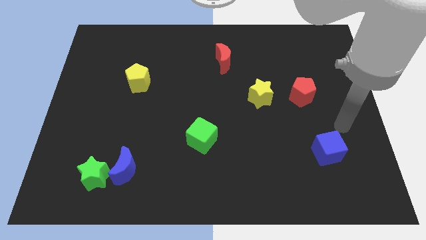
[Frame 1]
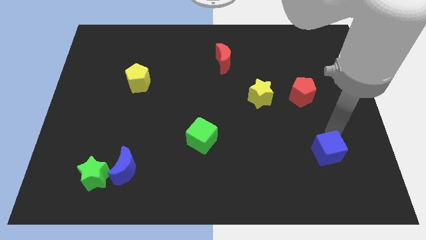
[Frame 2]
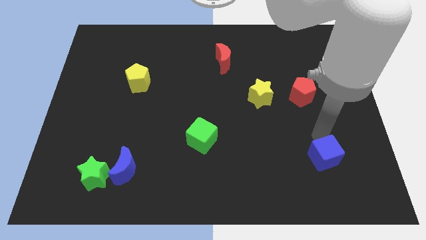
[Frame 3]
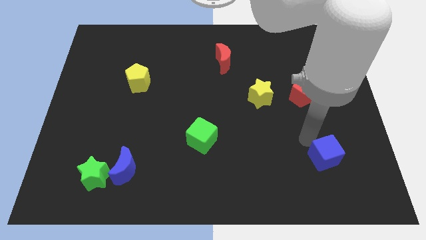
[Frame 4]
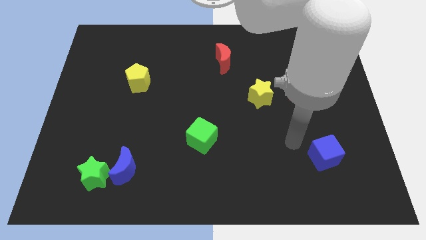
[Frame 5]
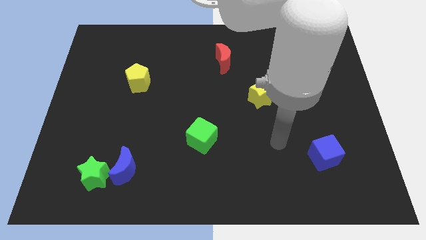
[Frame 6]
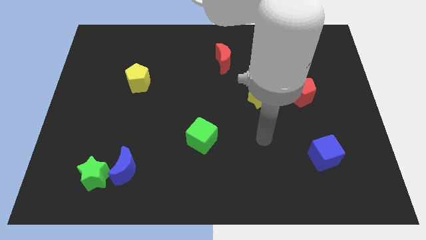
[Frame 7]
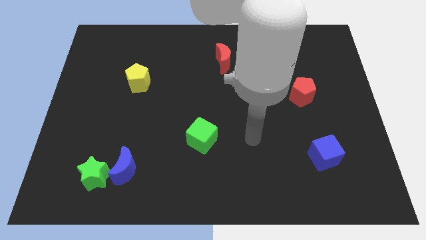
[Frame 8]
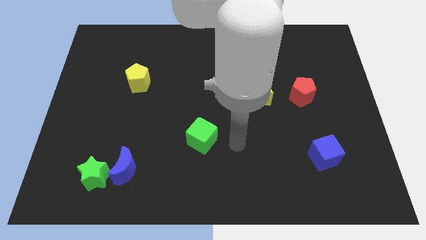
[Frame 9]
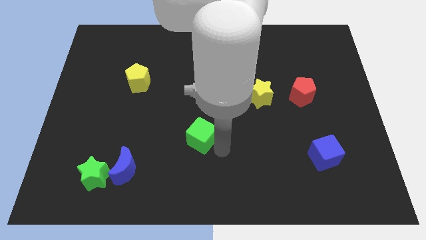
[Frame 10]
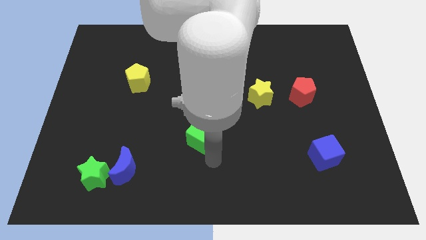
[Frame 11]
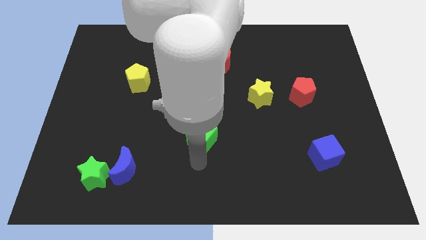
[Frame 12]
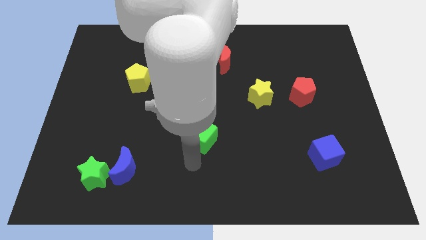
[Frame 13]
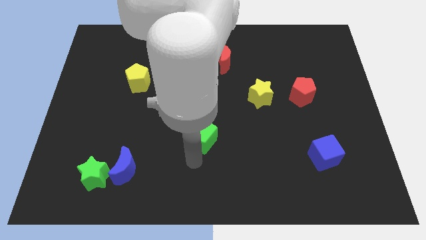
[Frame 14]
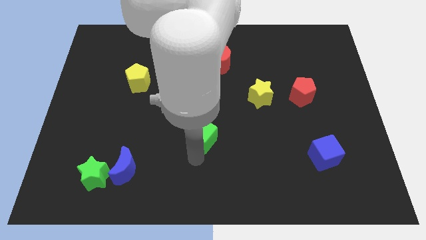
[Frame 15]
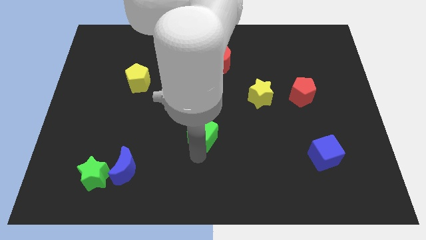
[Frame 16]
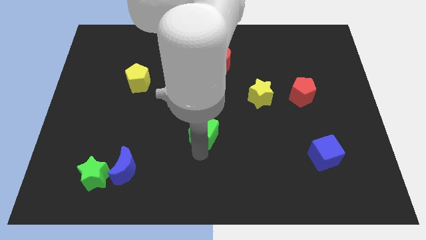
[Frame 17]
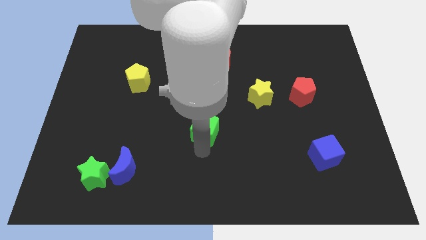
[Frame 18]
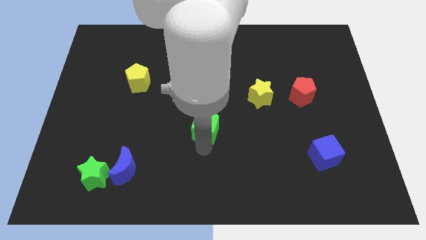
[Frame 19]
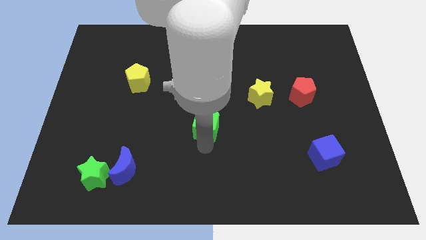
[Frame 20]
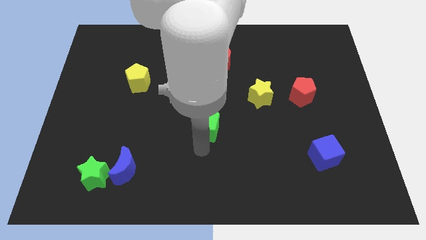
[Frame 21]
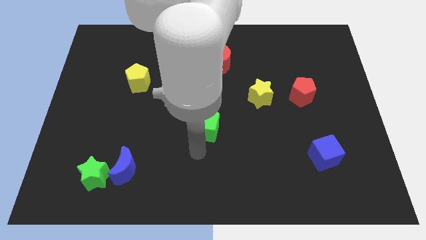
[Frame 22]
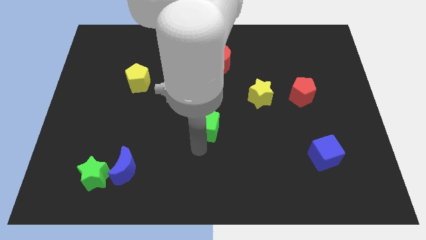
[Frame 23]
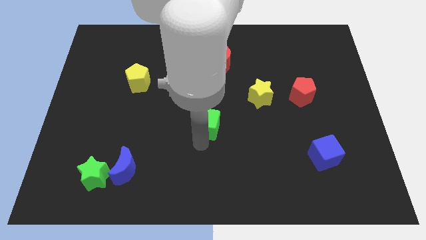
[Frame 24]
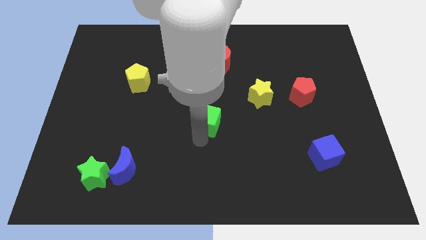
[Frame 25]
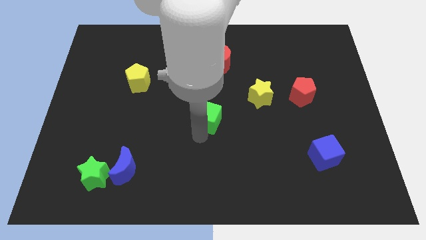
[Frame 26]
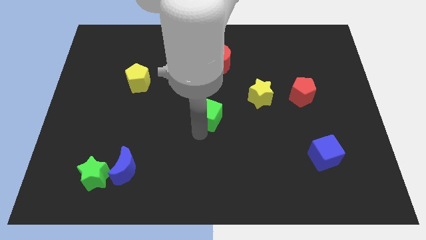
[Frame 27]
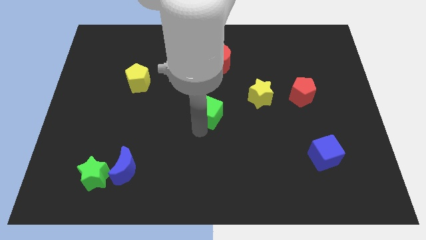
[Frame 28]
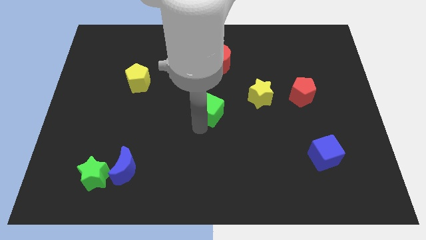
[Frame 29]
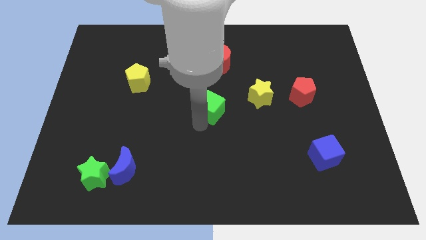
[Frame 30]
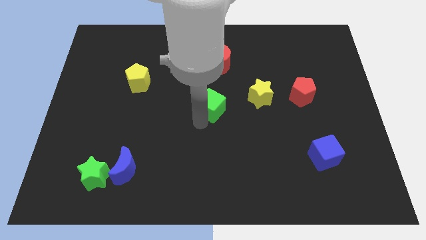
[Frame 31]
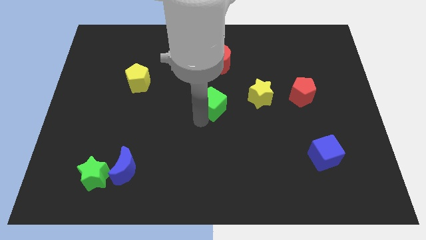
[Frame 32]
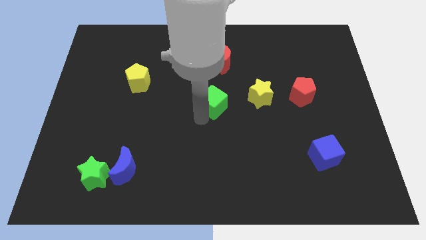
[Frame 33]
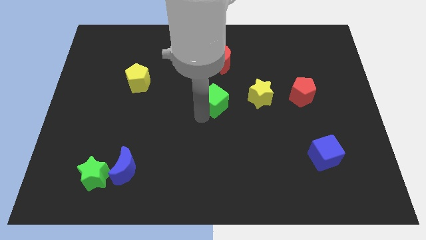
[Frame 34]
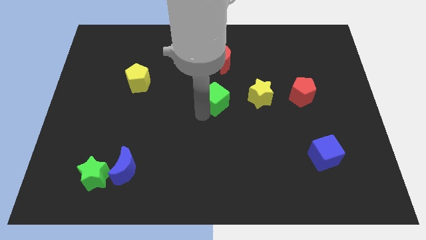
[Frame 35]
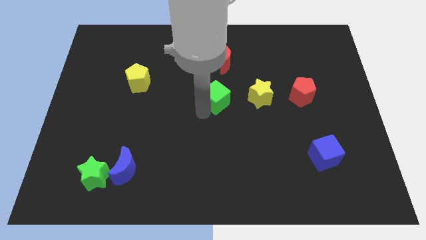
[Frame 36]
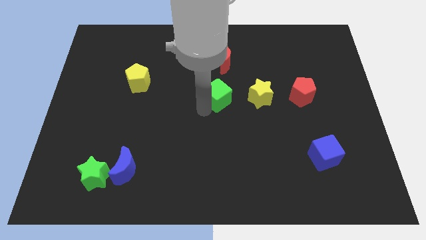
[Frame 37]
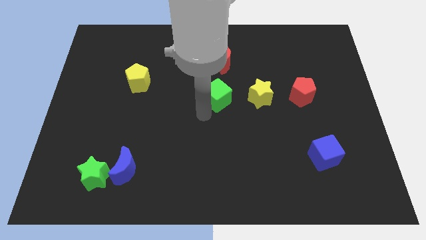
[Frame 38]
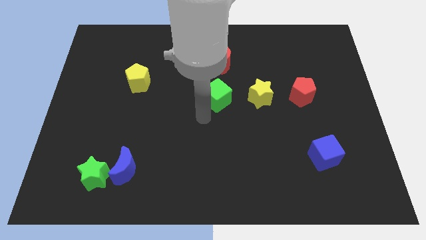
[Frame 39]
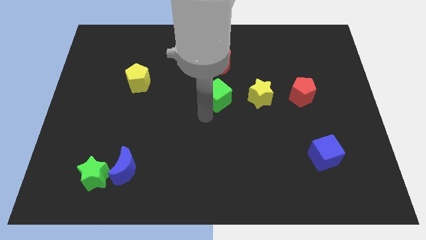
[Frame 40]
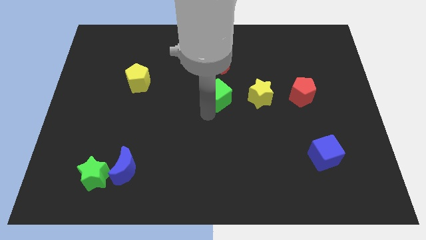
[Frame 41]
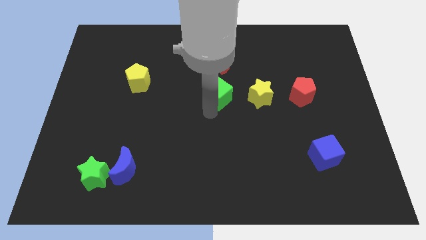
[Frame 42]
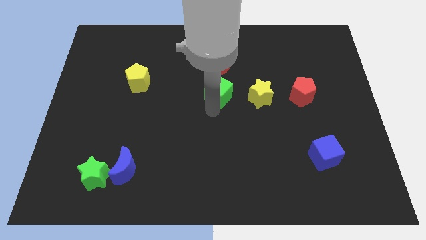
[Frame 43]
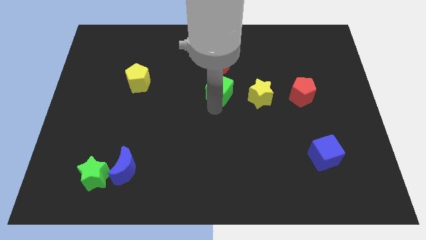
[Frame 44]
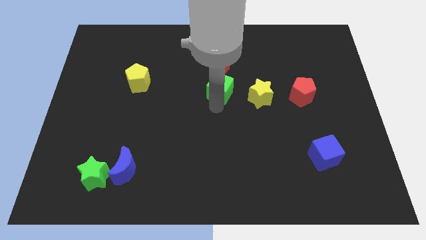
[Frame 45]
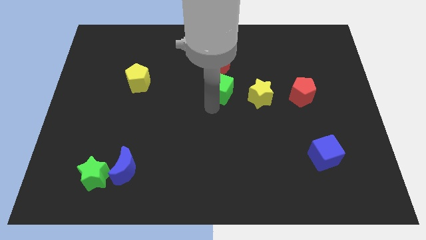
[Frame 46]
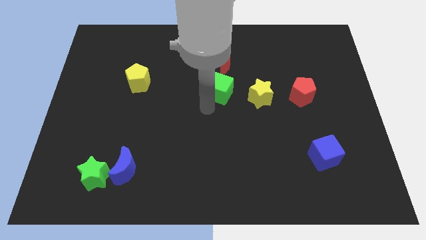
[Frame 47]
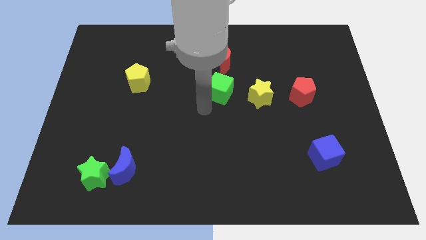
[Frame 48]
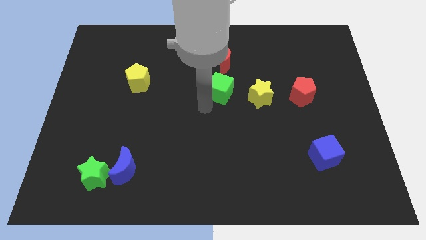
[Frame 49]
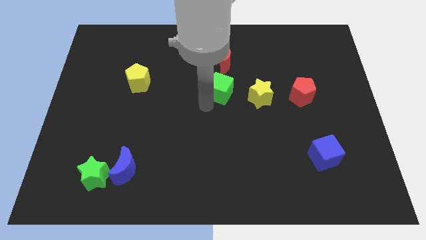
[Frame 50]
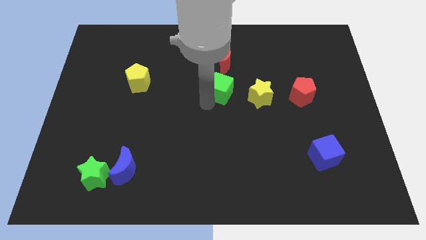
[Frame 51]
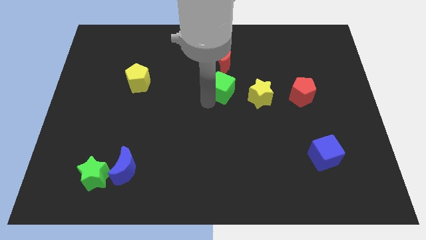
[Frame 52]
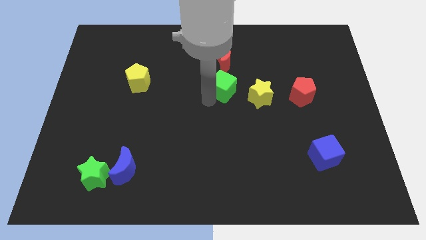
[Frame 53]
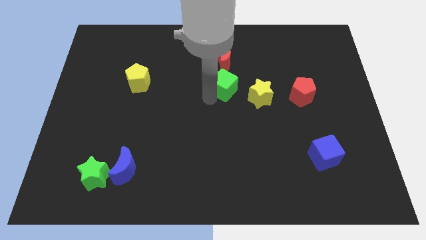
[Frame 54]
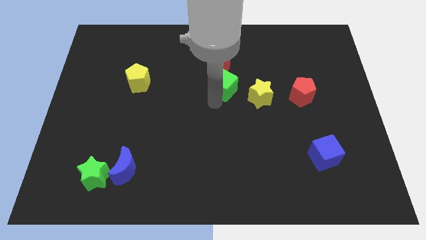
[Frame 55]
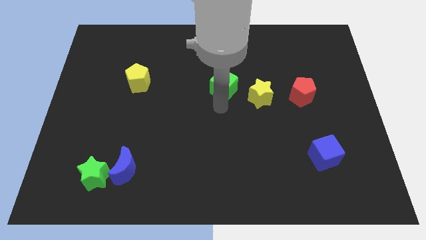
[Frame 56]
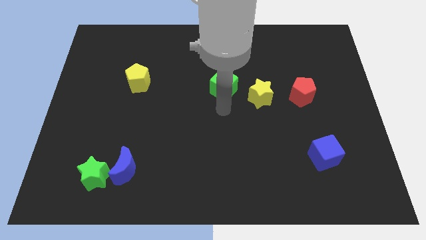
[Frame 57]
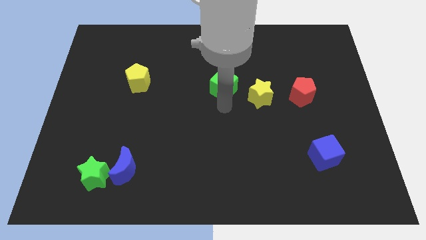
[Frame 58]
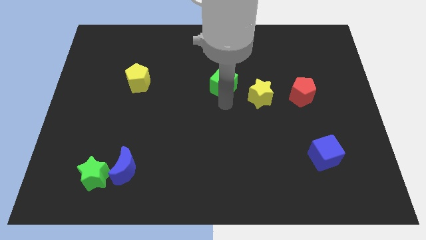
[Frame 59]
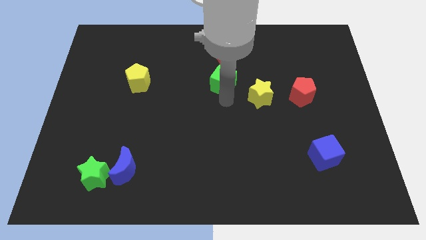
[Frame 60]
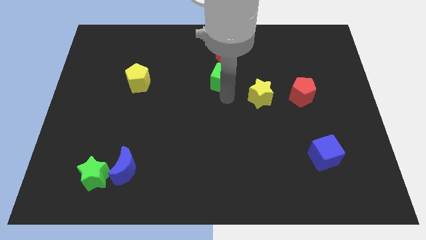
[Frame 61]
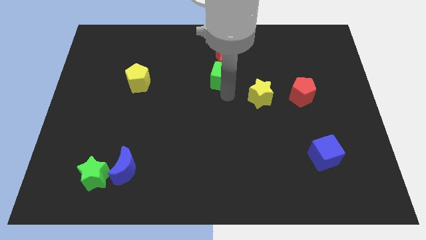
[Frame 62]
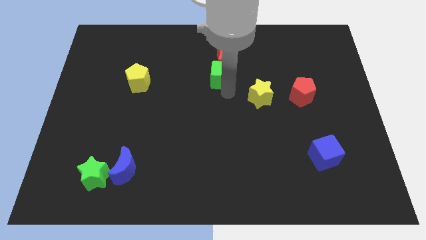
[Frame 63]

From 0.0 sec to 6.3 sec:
slide the green cube towards the red moon

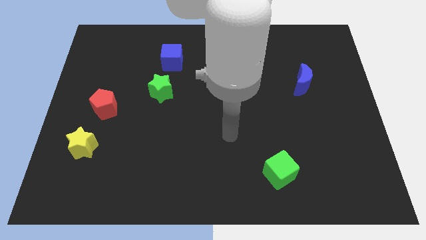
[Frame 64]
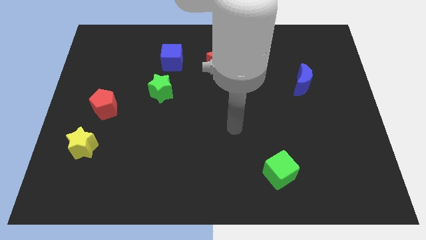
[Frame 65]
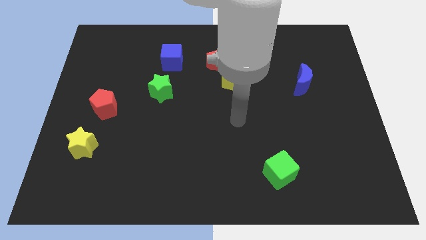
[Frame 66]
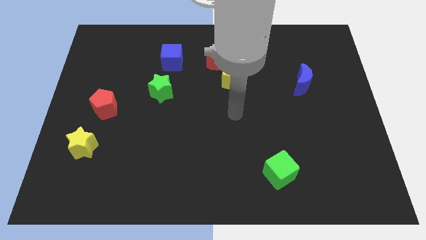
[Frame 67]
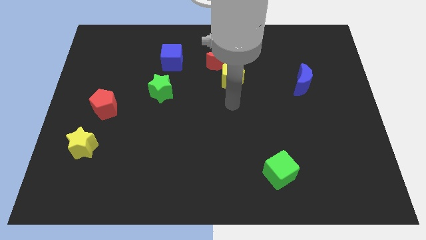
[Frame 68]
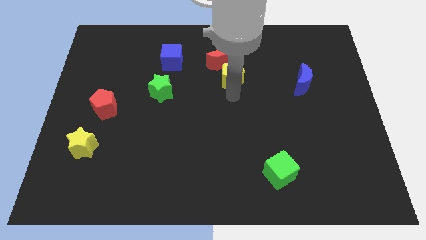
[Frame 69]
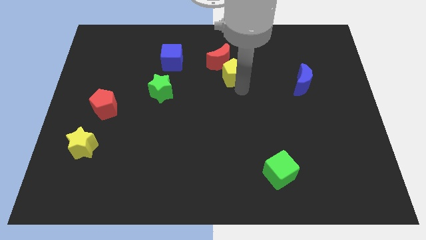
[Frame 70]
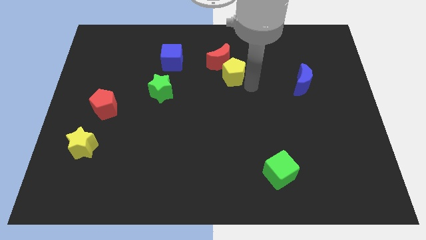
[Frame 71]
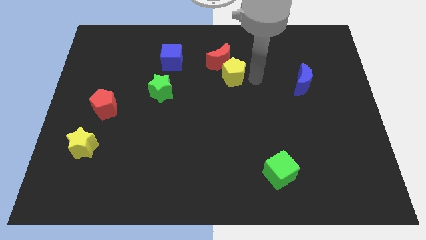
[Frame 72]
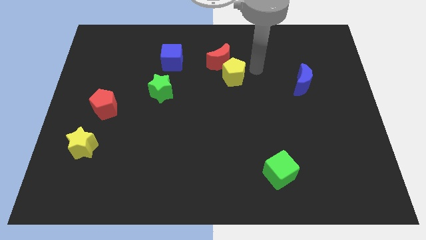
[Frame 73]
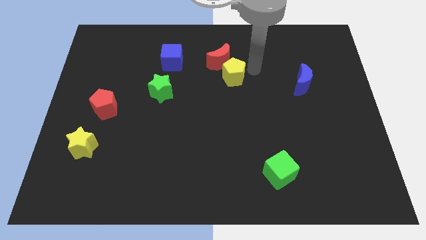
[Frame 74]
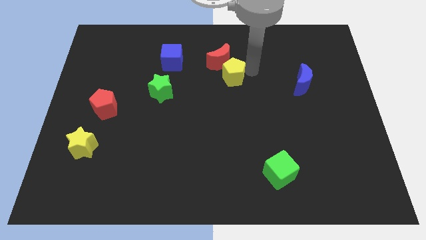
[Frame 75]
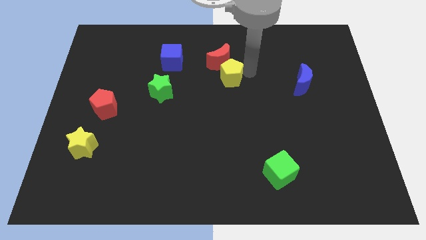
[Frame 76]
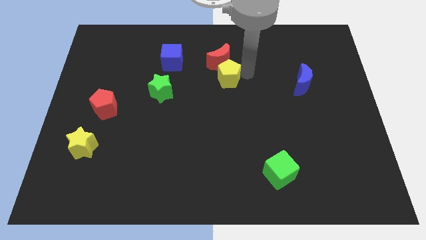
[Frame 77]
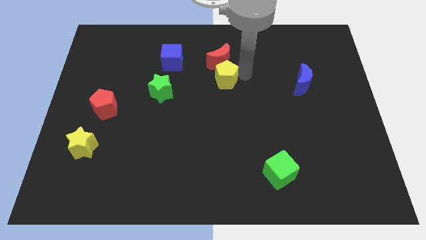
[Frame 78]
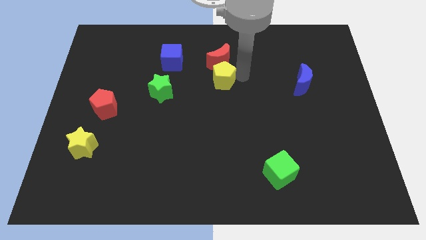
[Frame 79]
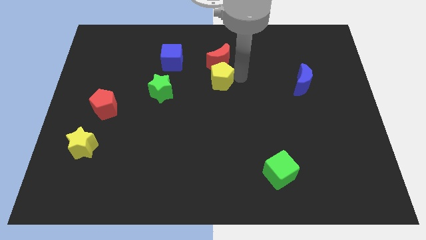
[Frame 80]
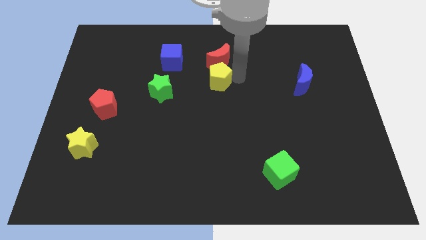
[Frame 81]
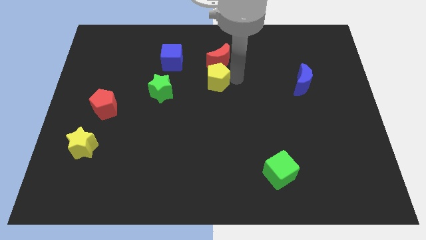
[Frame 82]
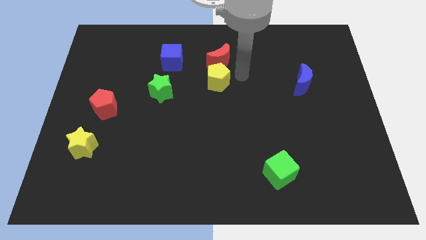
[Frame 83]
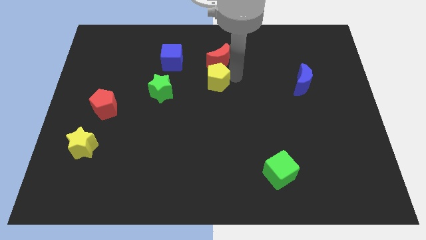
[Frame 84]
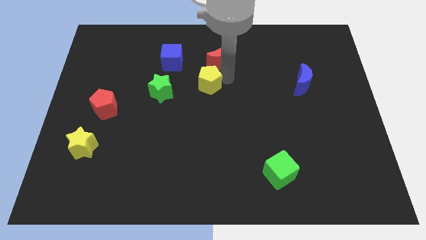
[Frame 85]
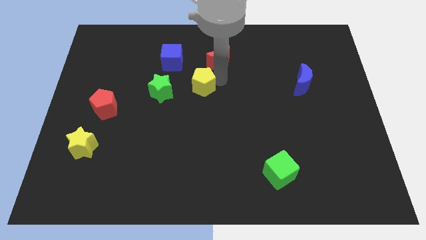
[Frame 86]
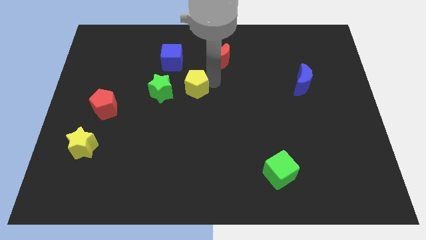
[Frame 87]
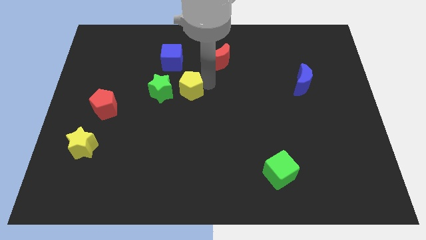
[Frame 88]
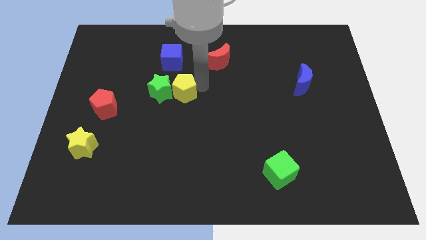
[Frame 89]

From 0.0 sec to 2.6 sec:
move the yellow pentagon close to the green star
